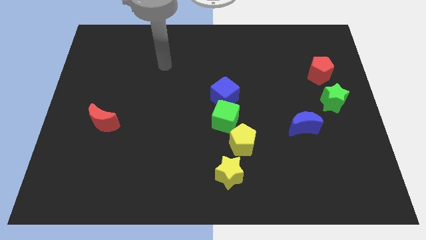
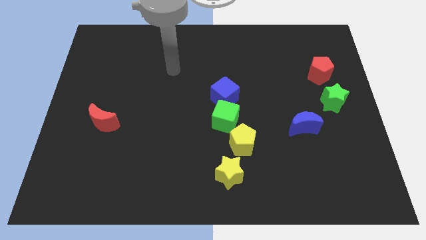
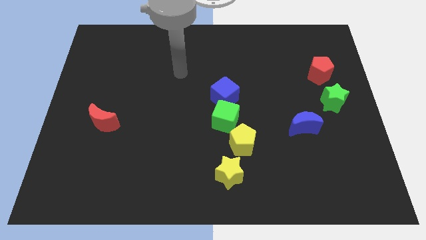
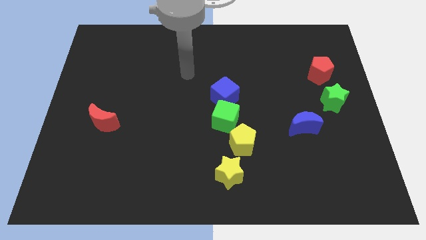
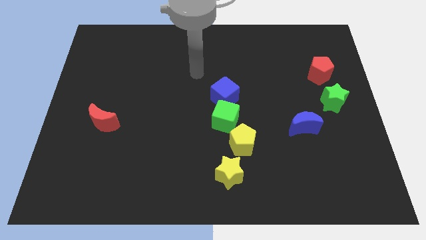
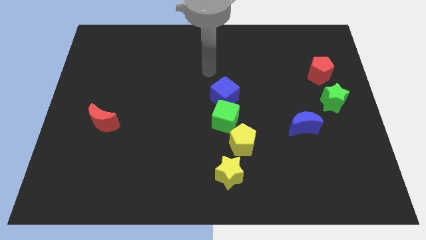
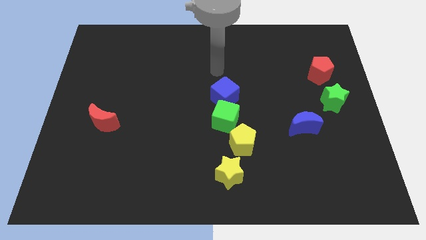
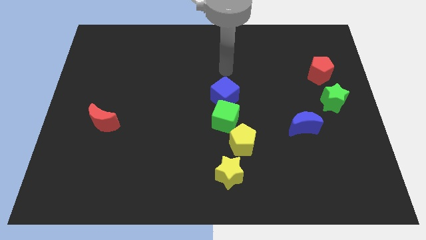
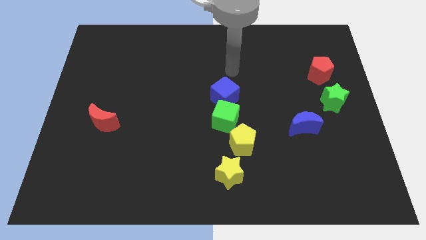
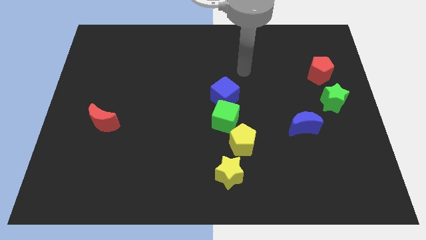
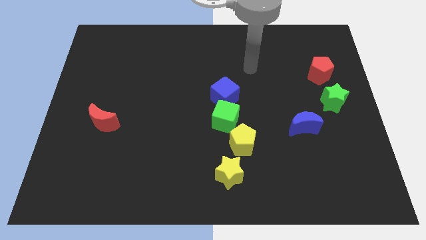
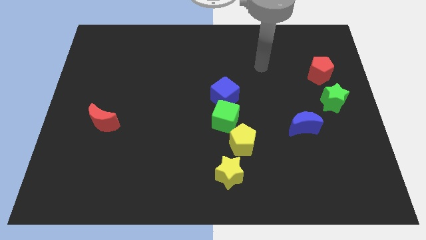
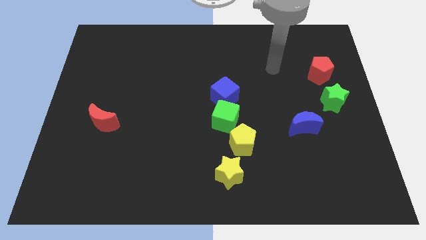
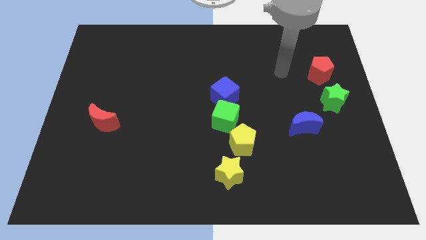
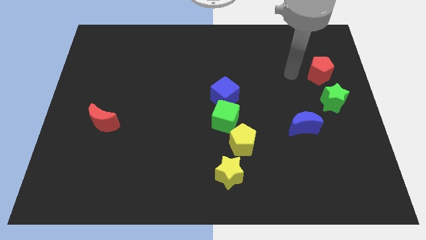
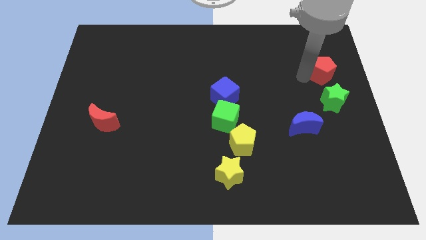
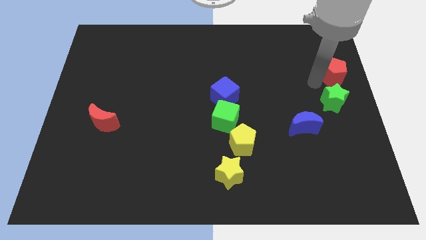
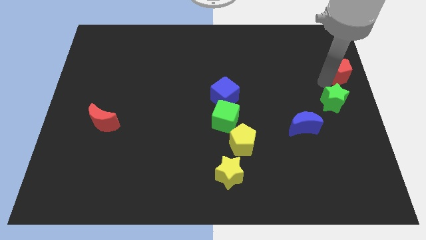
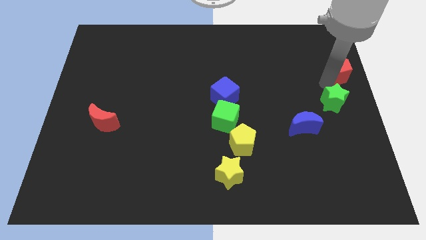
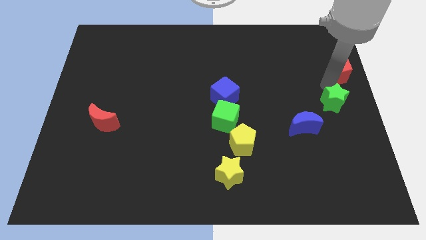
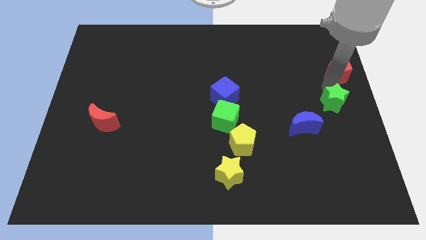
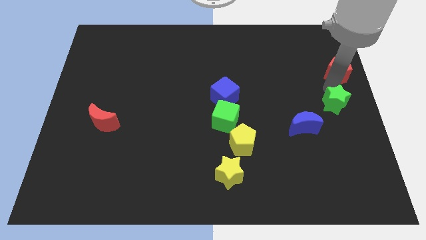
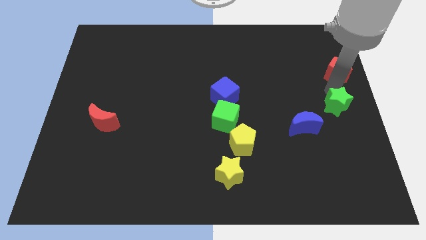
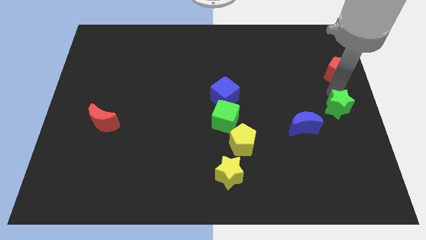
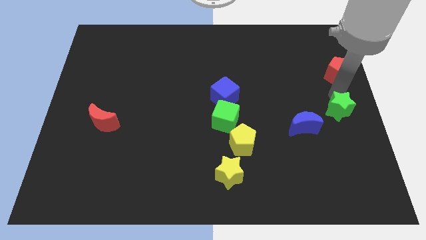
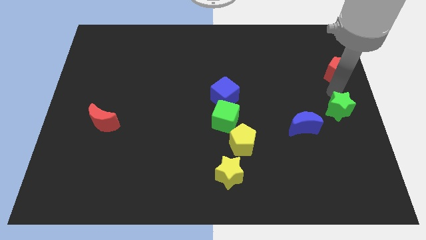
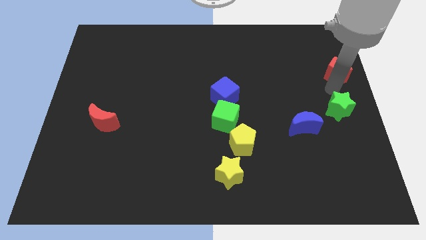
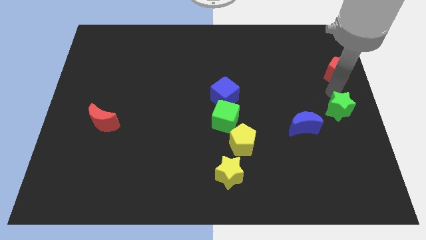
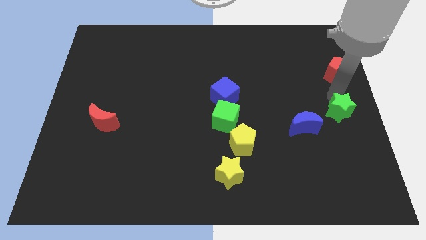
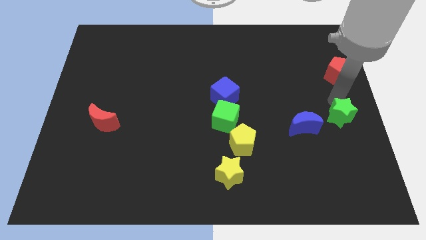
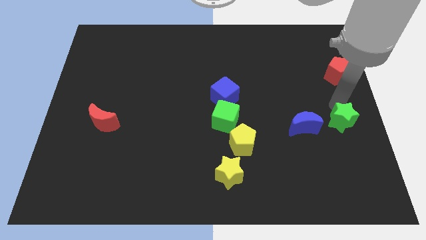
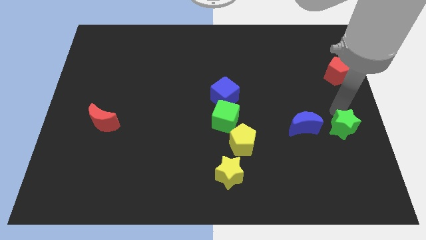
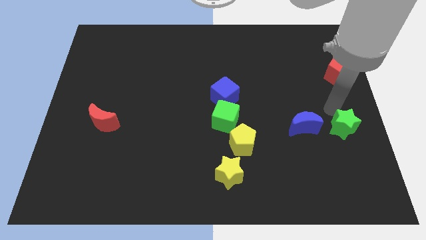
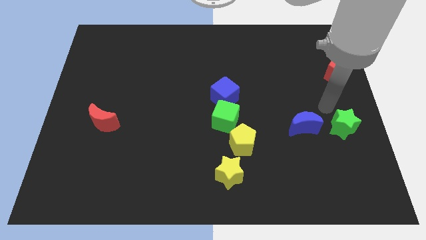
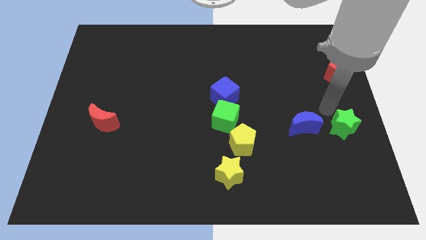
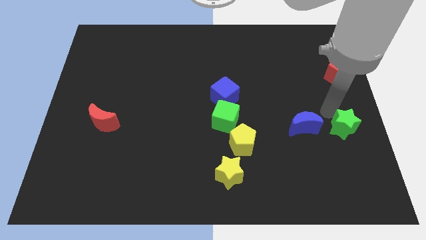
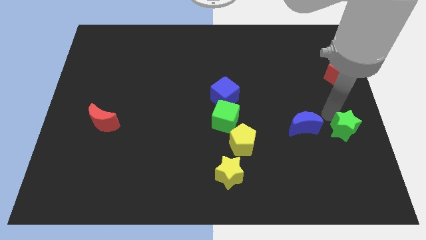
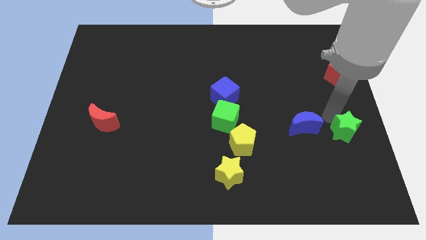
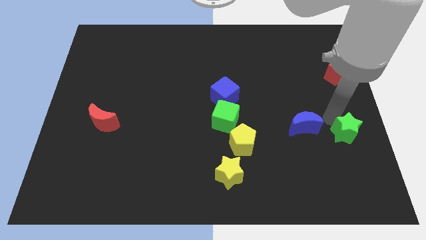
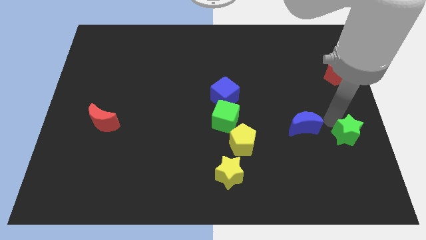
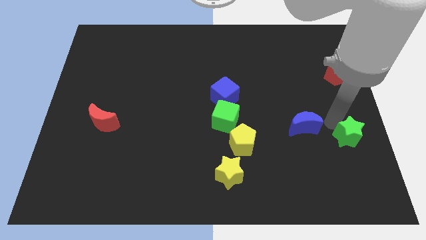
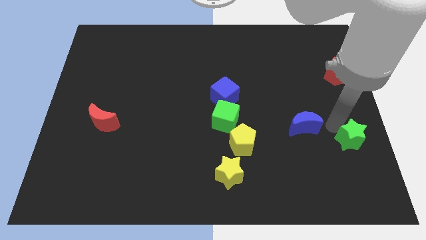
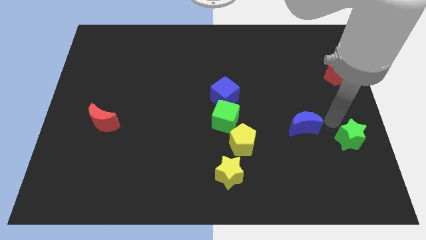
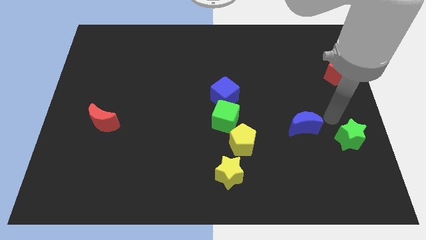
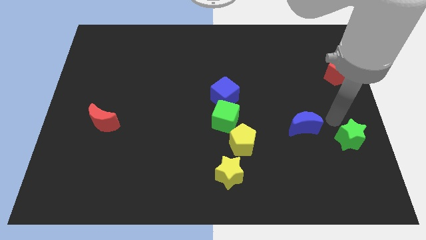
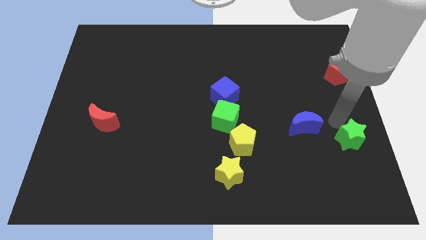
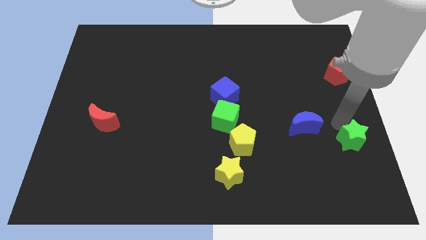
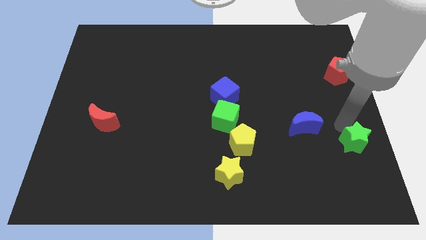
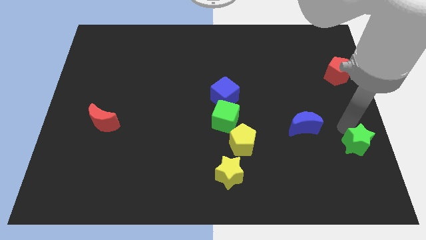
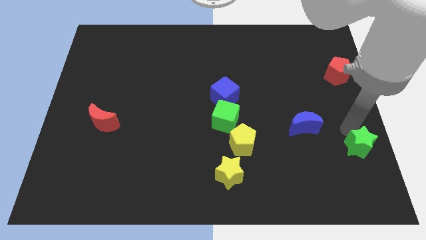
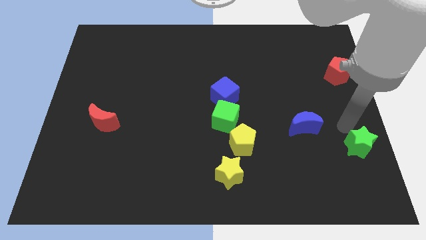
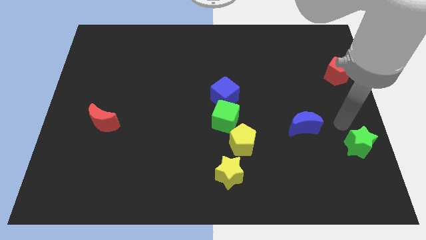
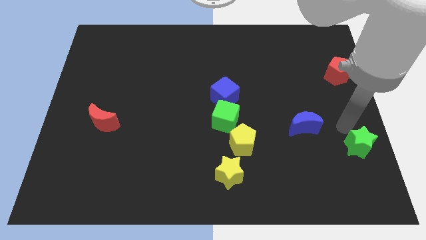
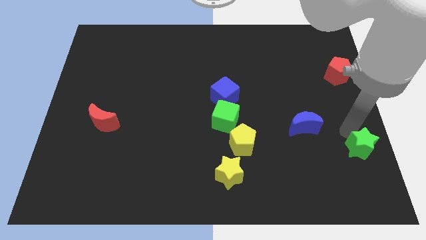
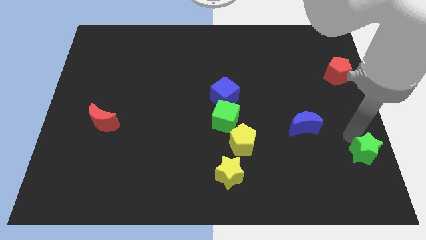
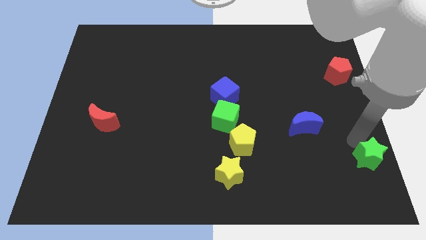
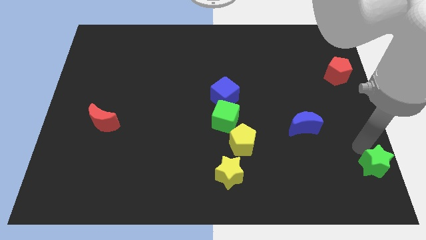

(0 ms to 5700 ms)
push the green star to the lower right corner

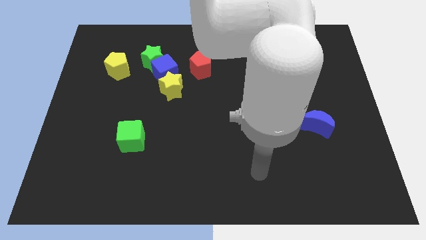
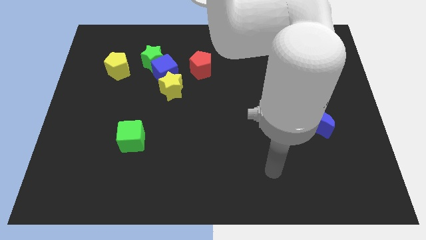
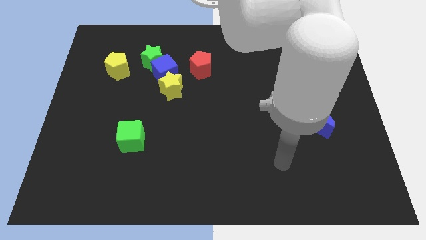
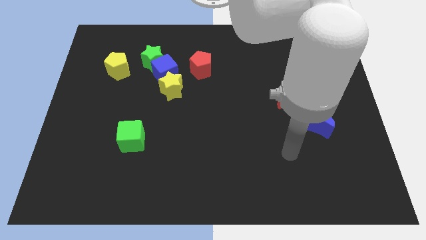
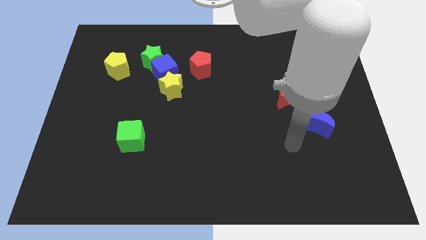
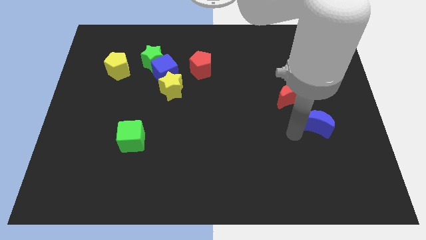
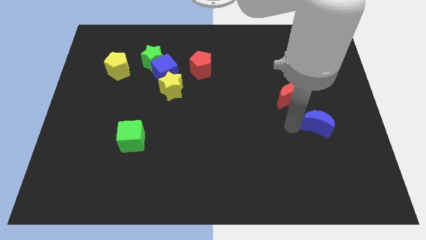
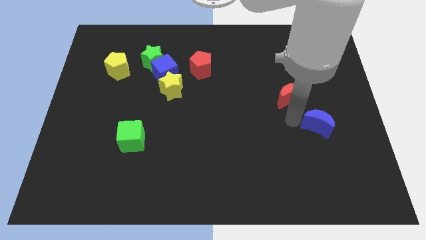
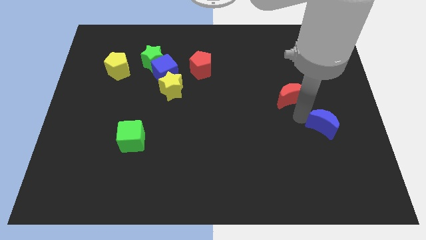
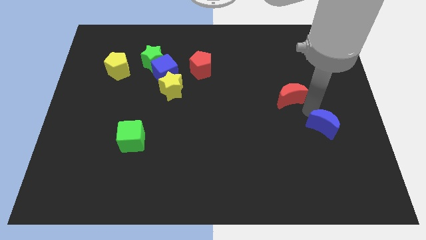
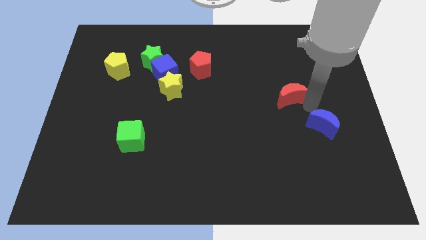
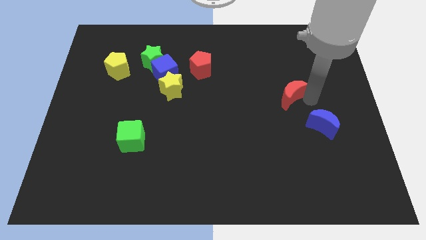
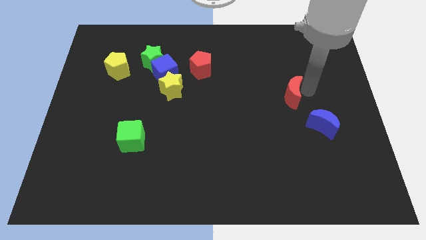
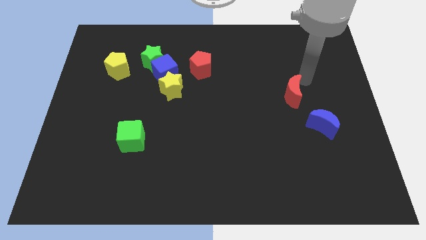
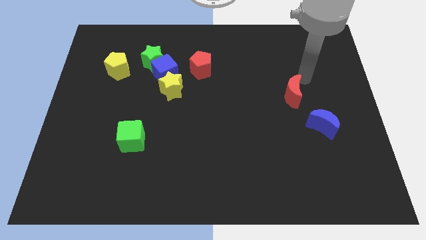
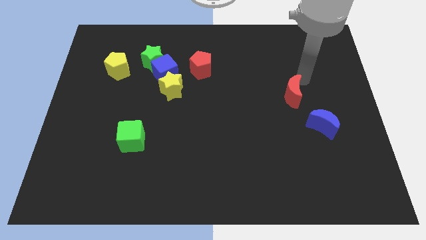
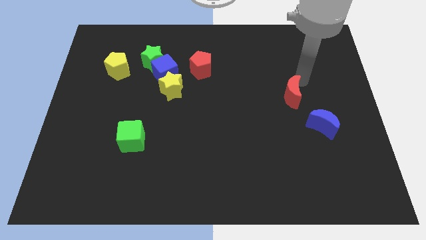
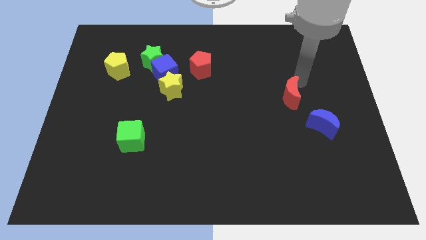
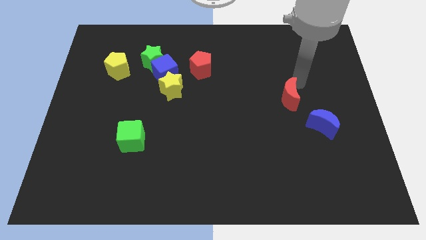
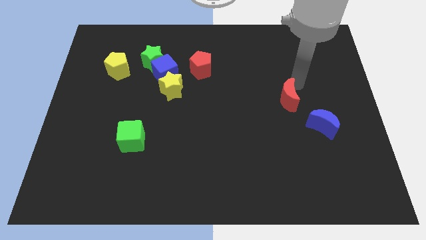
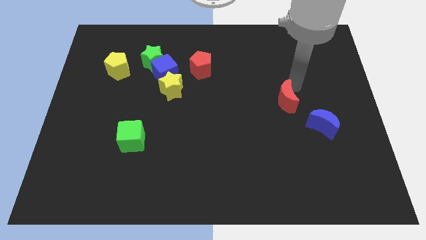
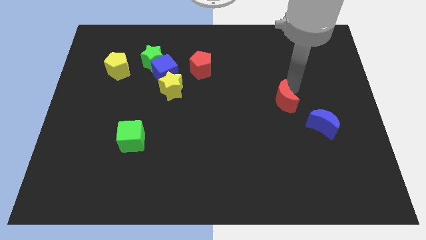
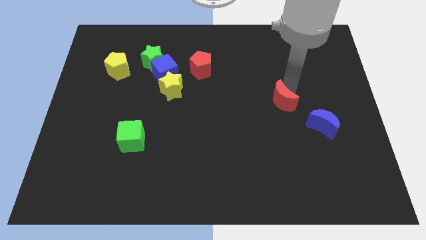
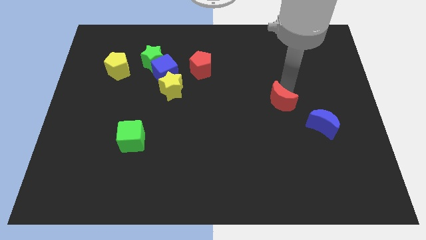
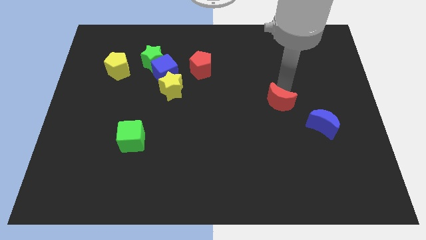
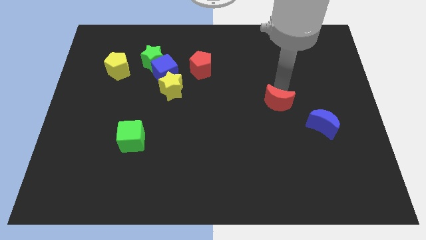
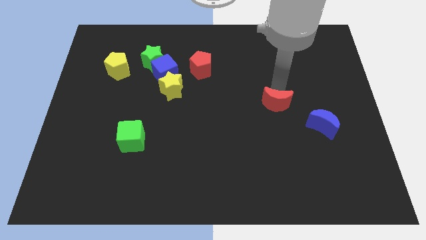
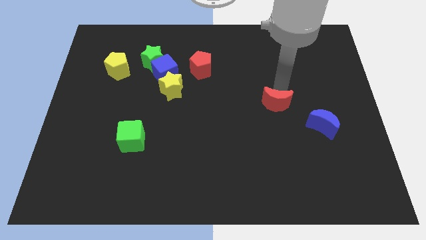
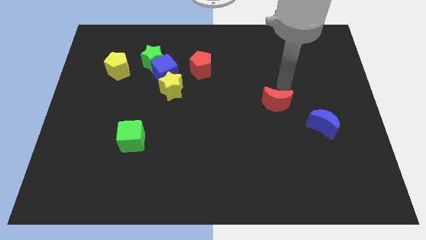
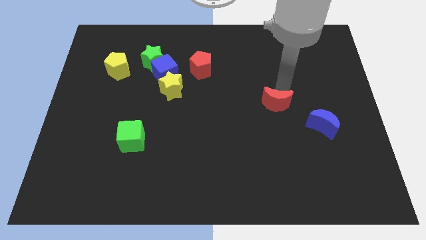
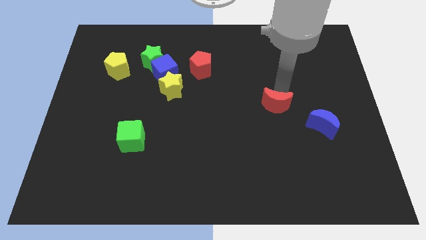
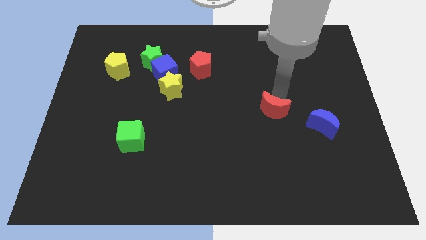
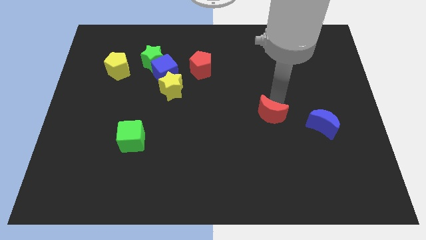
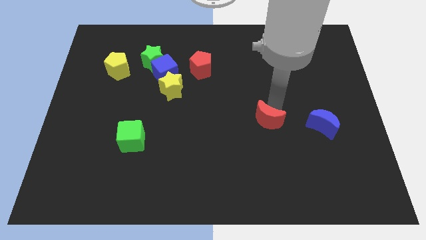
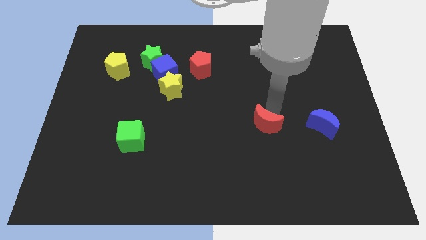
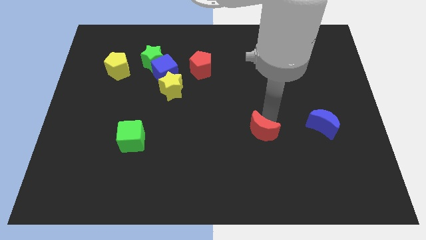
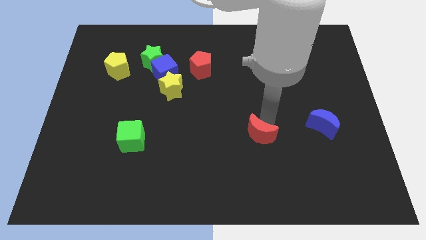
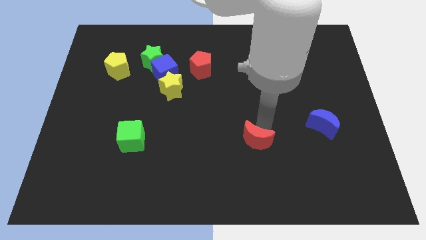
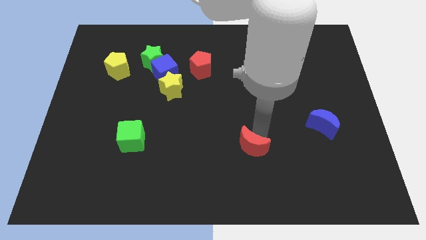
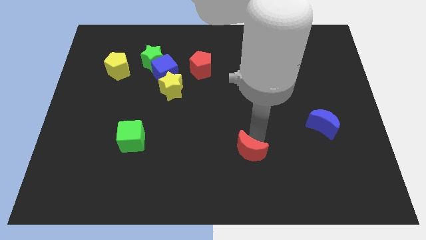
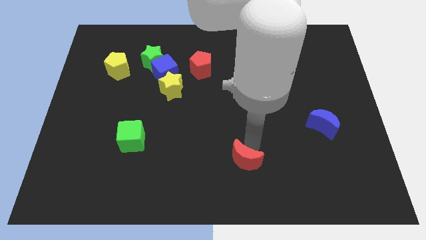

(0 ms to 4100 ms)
push the red moon to the bottom side
